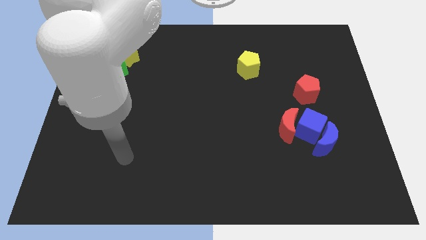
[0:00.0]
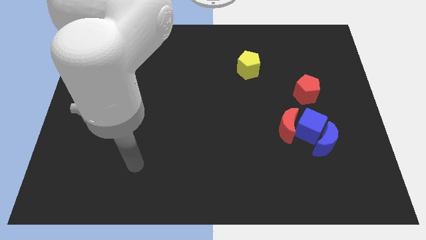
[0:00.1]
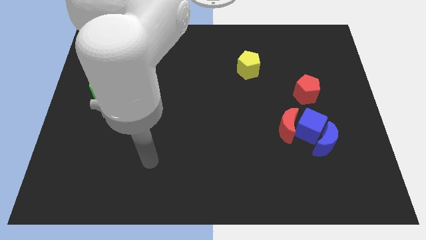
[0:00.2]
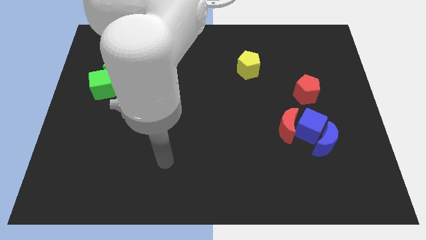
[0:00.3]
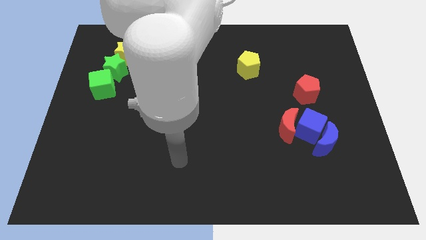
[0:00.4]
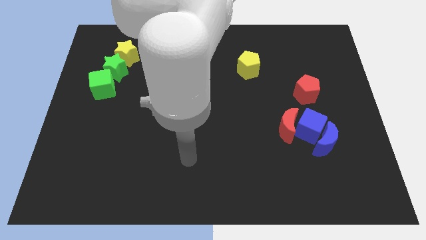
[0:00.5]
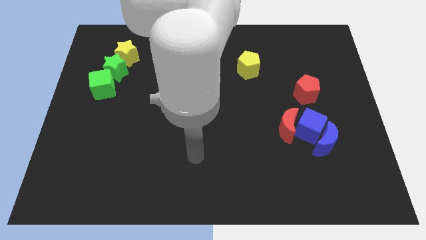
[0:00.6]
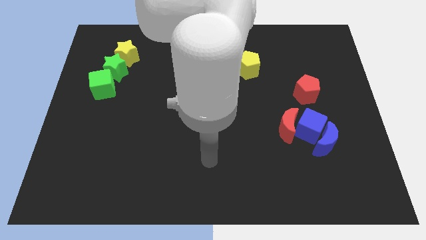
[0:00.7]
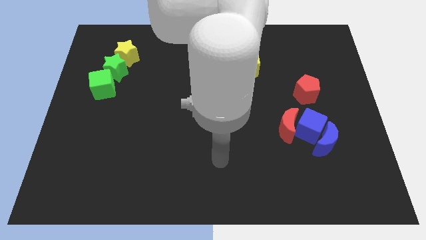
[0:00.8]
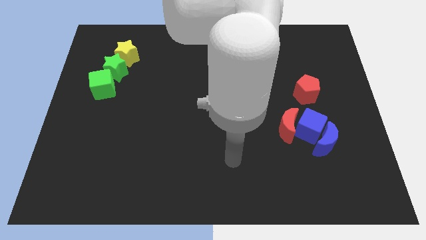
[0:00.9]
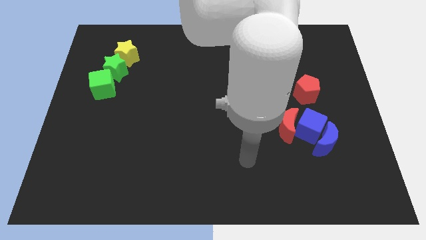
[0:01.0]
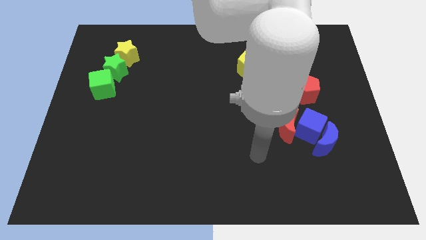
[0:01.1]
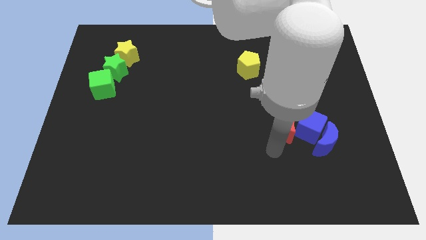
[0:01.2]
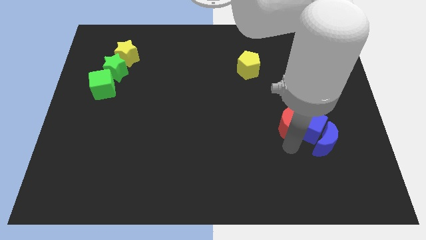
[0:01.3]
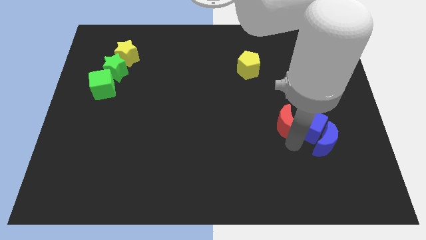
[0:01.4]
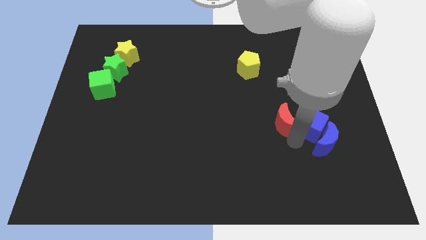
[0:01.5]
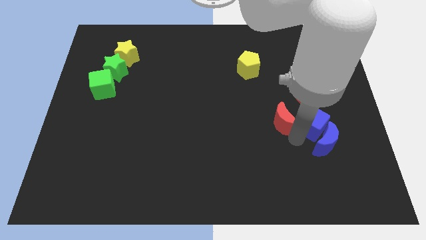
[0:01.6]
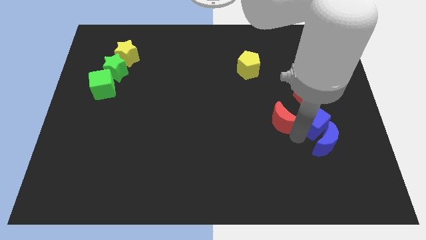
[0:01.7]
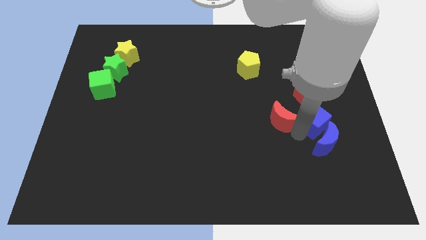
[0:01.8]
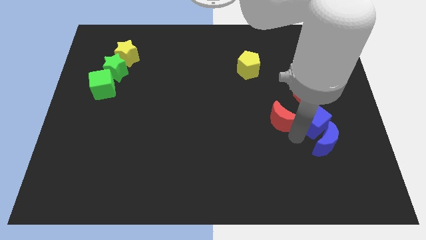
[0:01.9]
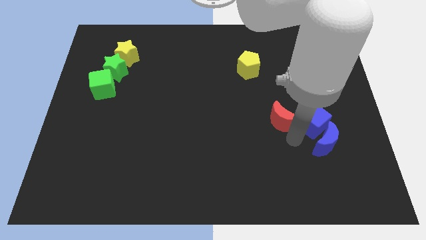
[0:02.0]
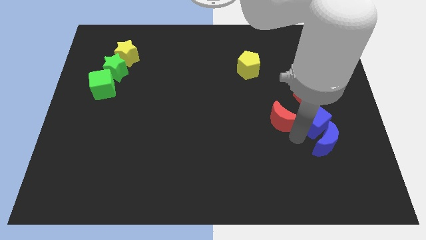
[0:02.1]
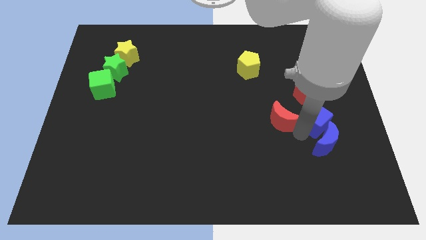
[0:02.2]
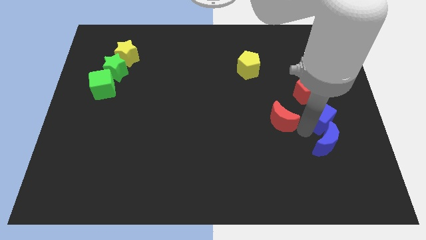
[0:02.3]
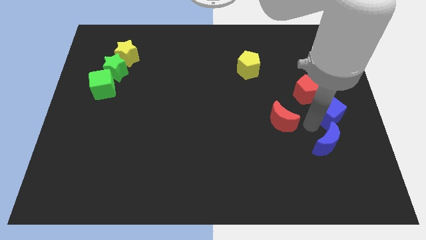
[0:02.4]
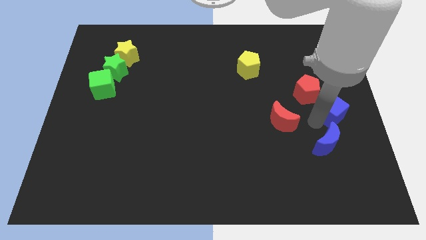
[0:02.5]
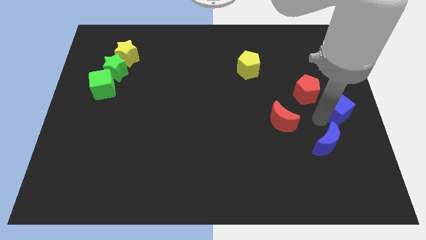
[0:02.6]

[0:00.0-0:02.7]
pull the blue cube apart from the blue moon and red moon

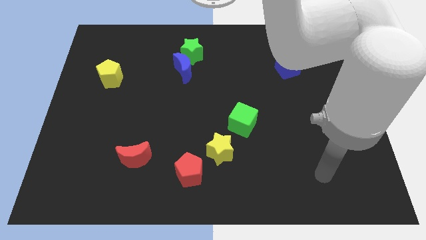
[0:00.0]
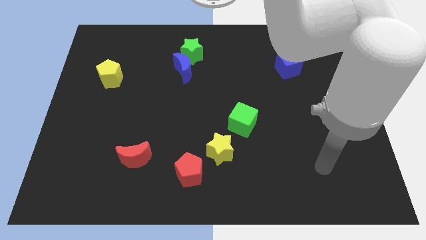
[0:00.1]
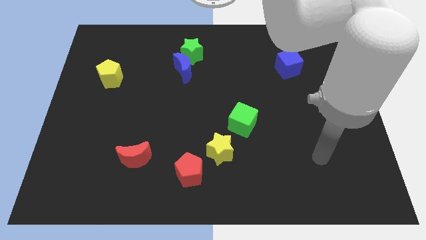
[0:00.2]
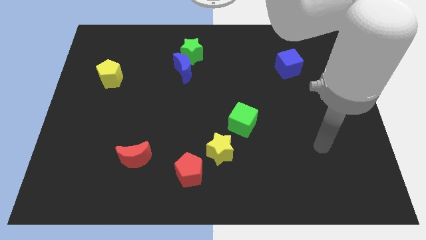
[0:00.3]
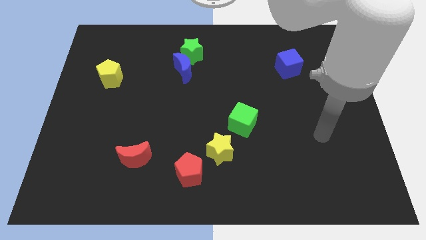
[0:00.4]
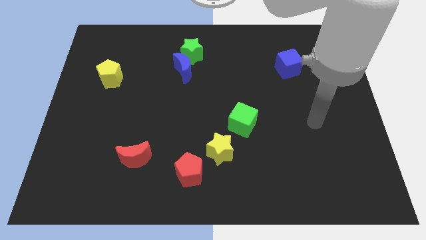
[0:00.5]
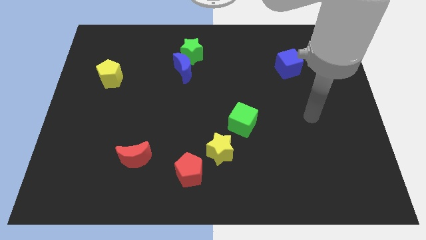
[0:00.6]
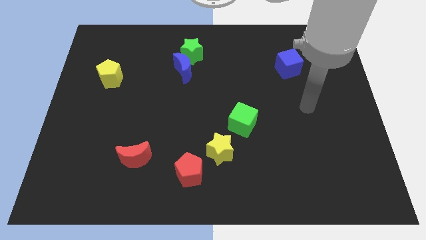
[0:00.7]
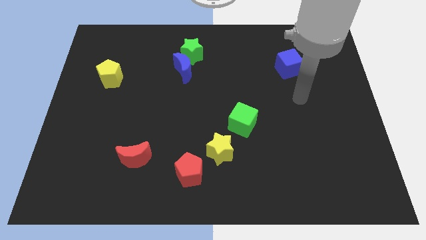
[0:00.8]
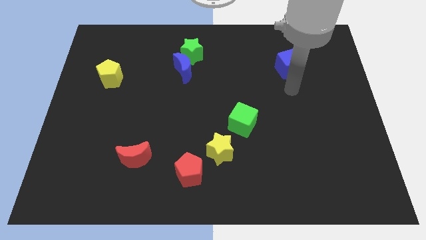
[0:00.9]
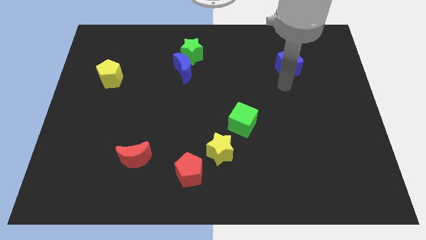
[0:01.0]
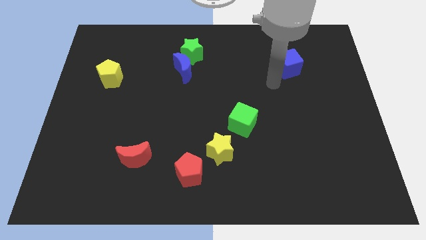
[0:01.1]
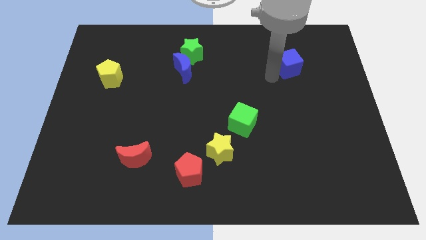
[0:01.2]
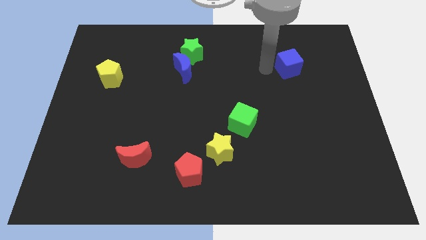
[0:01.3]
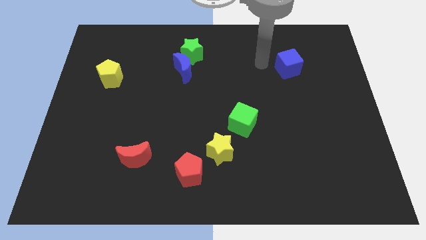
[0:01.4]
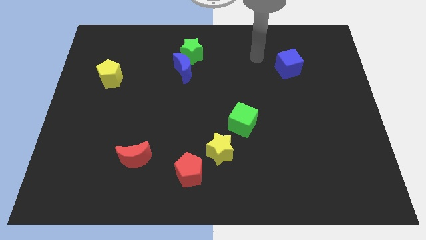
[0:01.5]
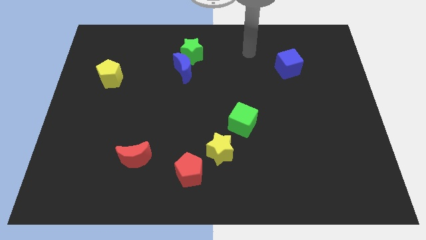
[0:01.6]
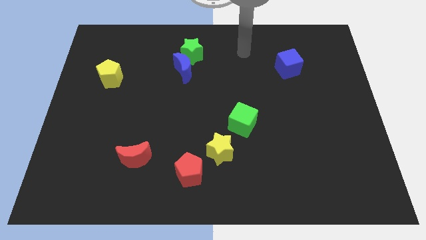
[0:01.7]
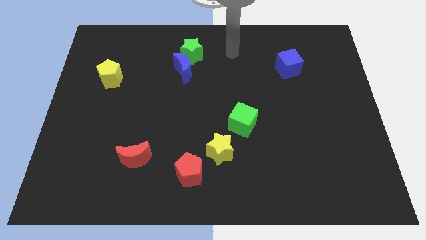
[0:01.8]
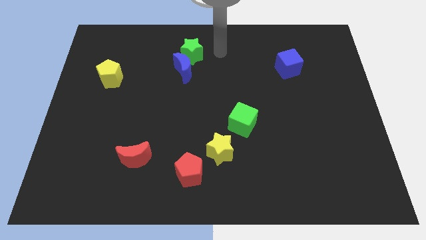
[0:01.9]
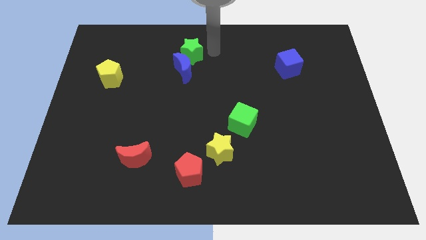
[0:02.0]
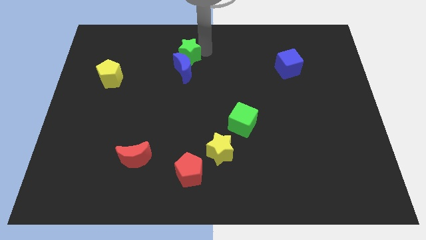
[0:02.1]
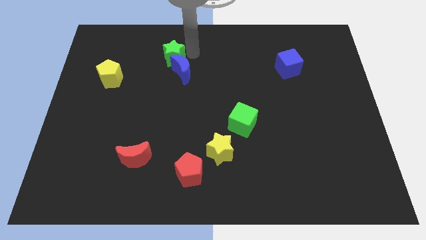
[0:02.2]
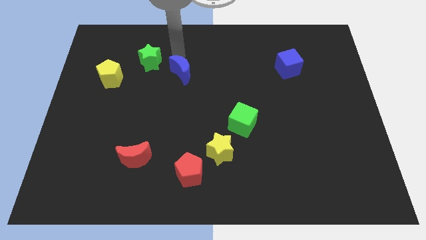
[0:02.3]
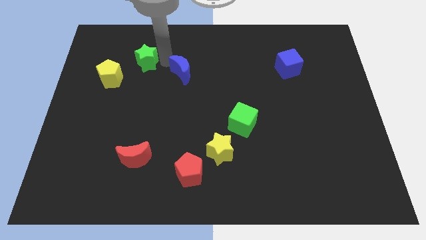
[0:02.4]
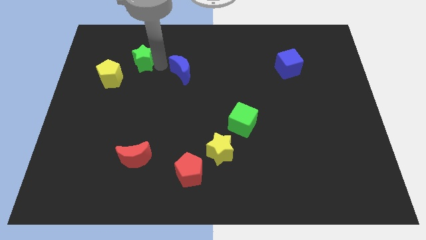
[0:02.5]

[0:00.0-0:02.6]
move the blue moon away from the green star

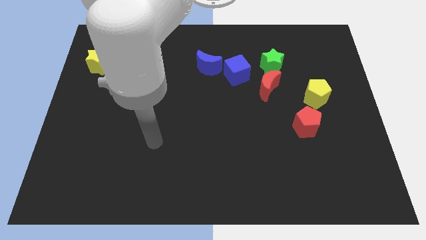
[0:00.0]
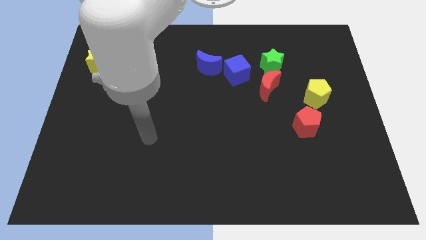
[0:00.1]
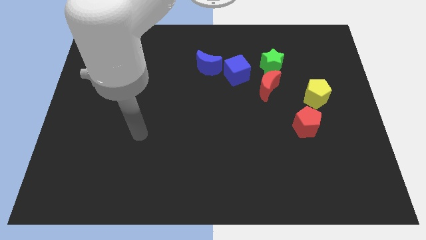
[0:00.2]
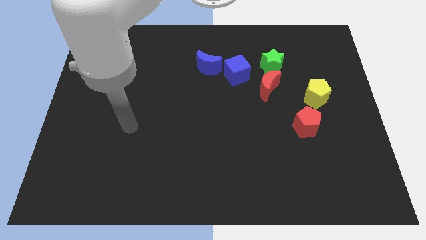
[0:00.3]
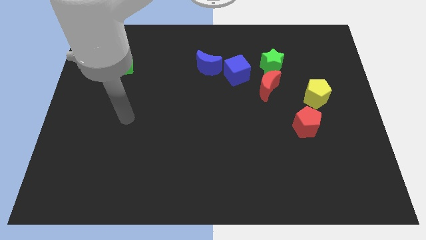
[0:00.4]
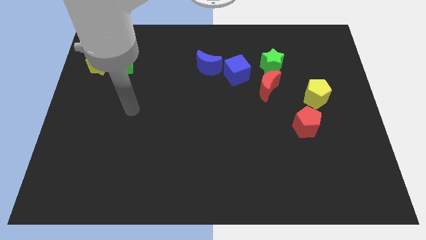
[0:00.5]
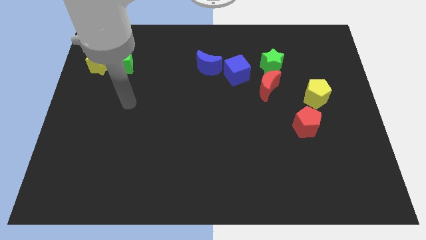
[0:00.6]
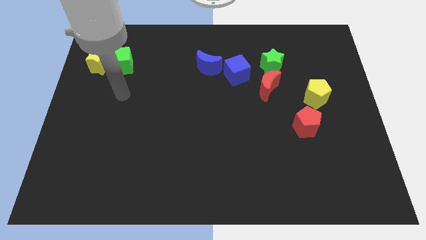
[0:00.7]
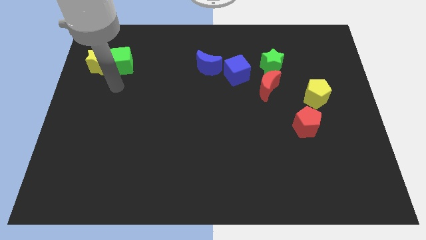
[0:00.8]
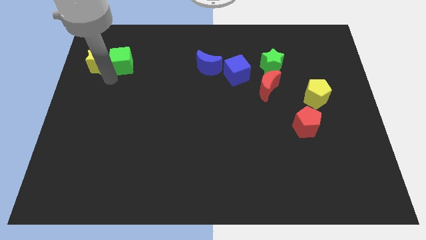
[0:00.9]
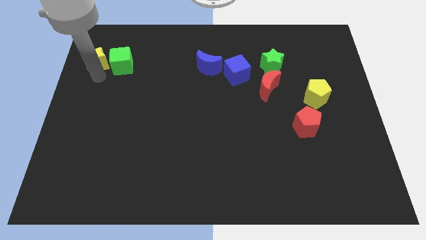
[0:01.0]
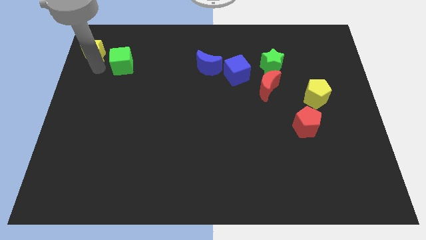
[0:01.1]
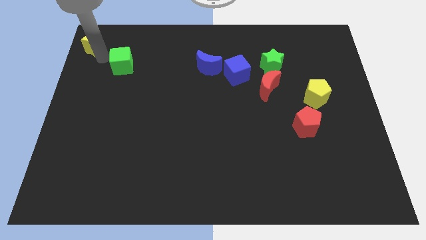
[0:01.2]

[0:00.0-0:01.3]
move the green cube away from the yellow star

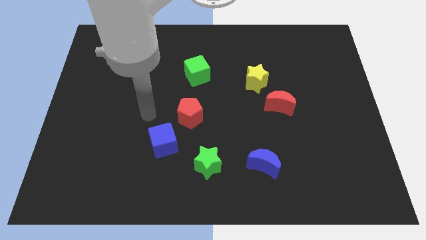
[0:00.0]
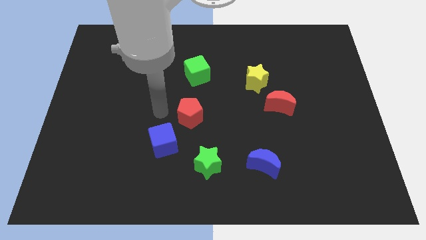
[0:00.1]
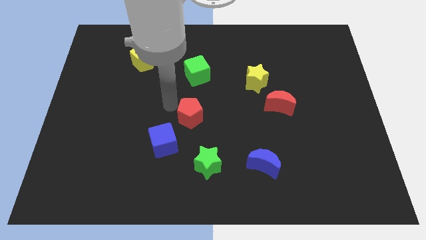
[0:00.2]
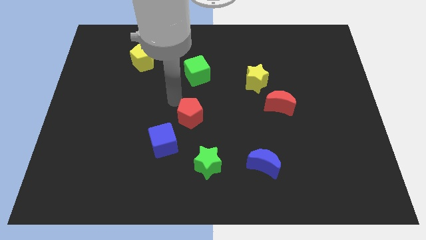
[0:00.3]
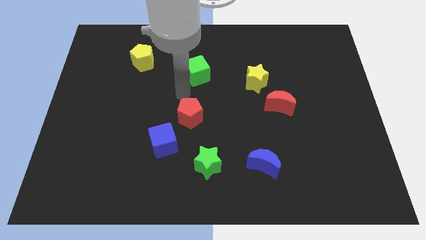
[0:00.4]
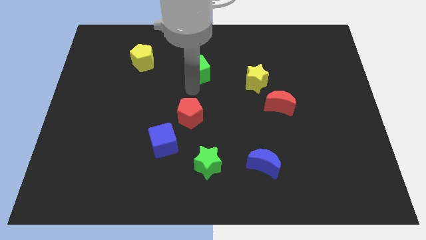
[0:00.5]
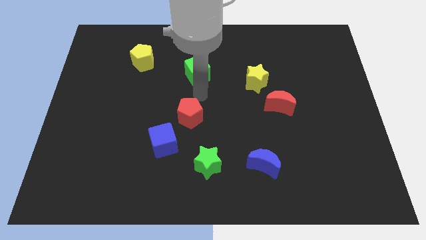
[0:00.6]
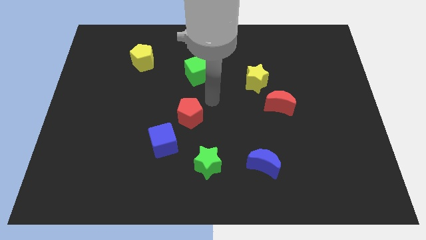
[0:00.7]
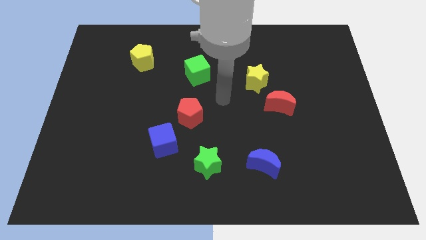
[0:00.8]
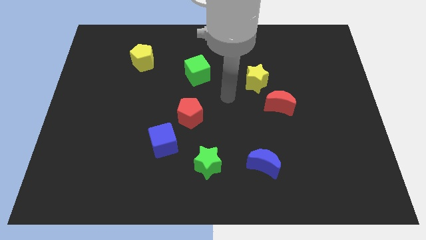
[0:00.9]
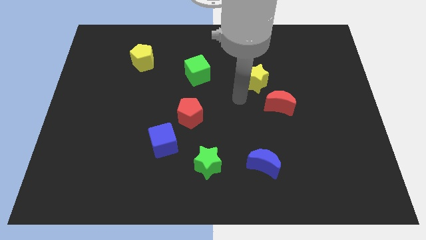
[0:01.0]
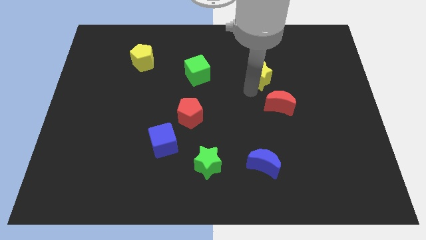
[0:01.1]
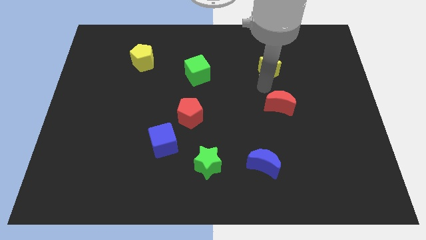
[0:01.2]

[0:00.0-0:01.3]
pull the red moon apart from the yellow star

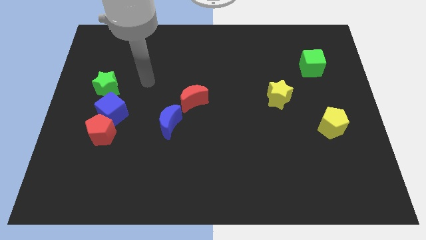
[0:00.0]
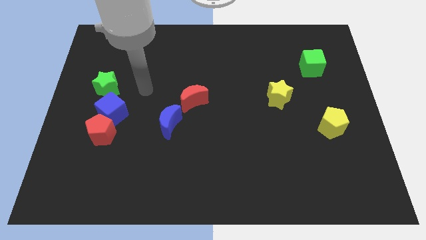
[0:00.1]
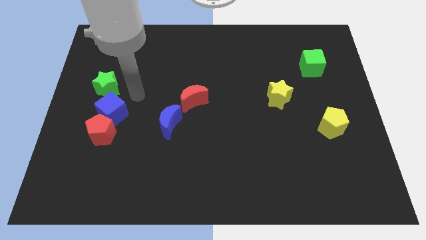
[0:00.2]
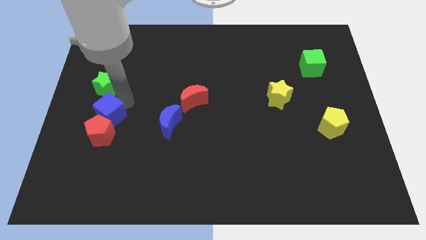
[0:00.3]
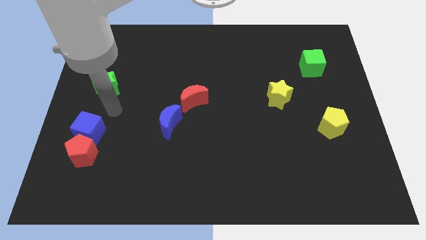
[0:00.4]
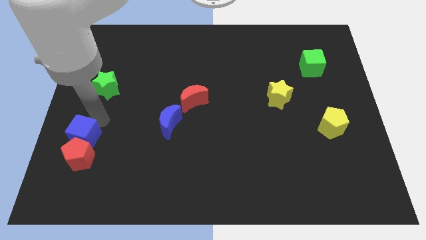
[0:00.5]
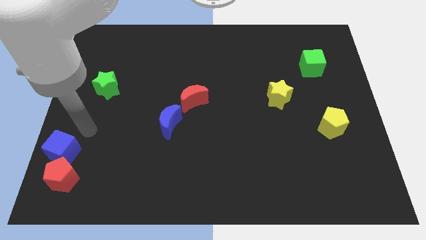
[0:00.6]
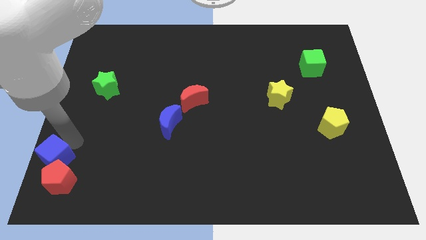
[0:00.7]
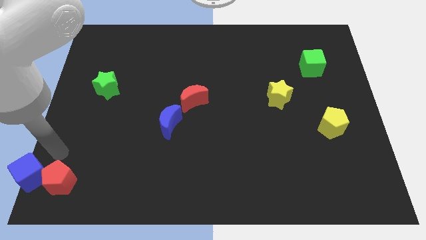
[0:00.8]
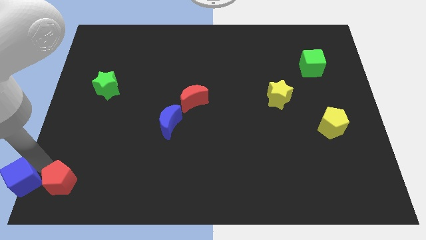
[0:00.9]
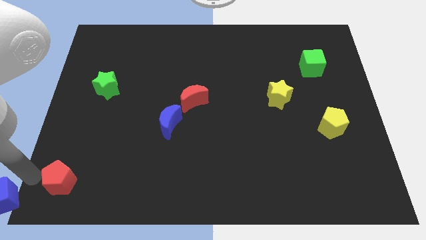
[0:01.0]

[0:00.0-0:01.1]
move the red pentagon away from the blue cube

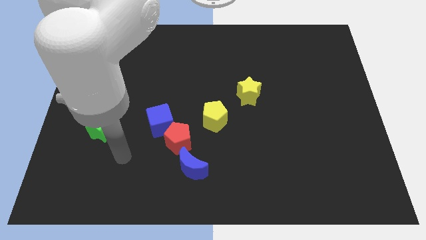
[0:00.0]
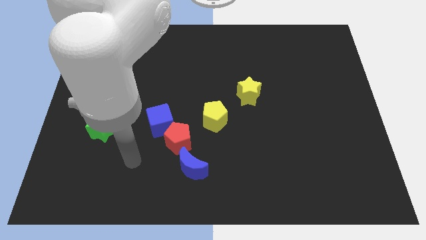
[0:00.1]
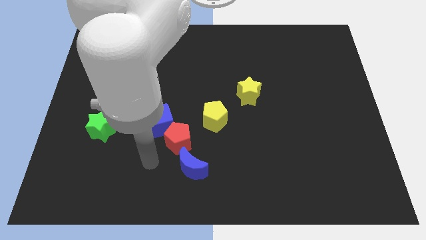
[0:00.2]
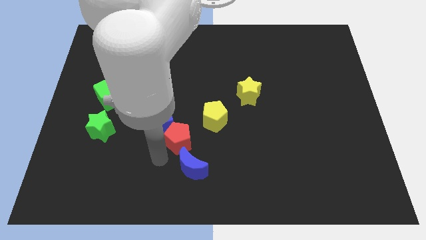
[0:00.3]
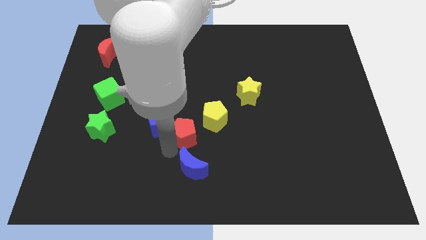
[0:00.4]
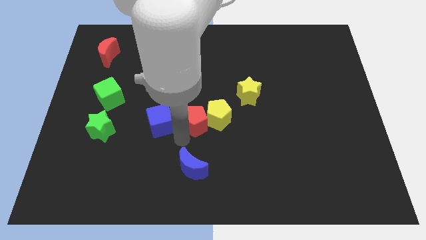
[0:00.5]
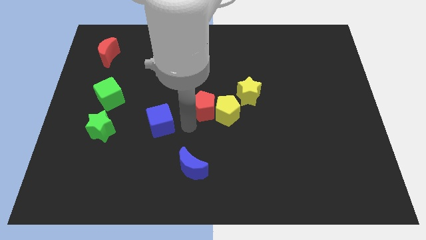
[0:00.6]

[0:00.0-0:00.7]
pull the blue cube apart from the red pentagon
